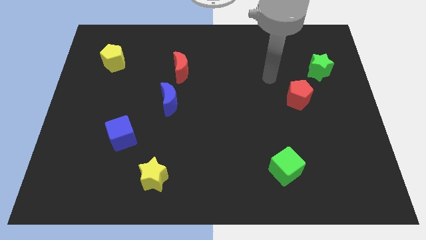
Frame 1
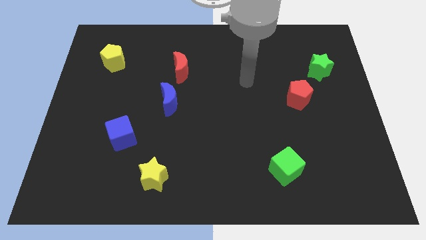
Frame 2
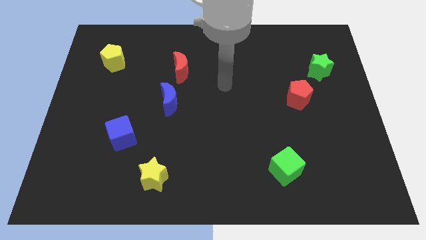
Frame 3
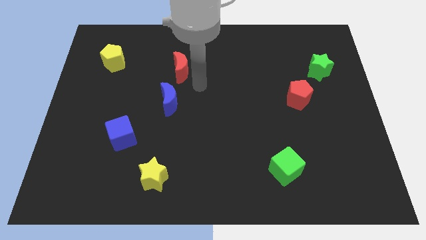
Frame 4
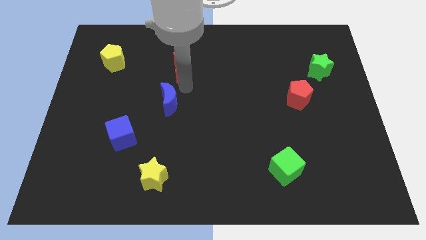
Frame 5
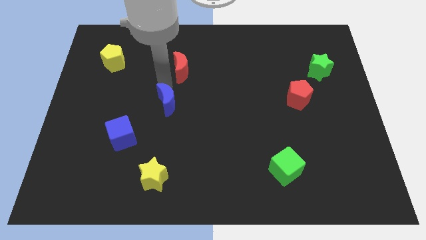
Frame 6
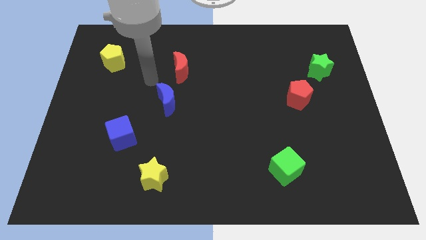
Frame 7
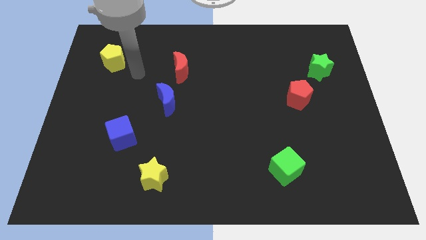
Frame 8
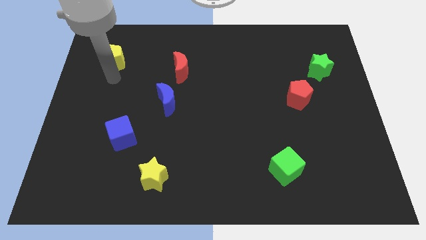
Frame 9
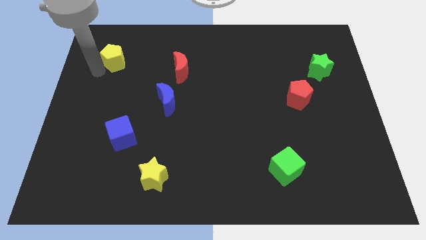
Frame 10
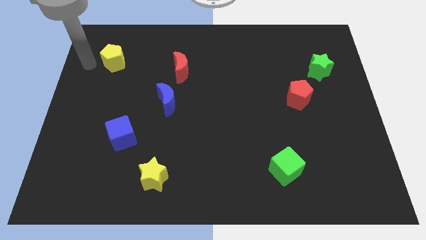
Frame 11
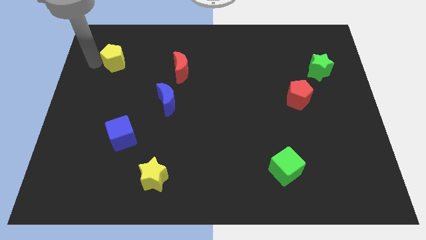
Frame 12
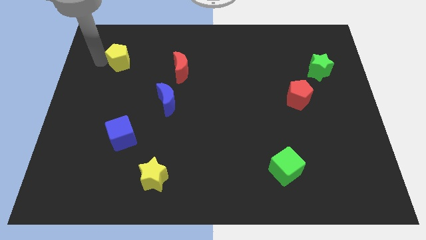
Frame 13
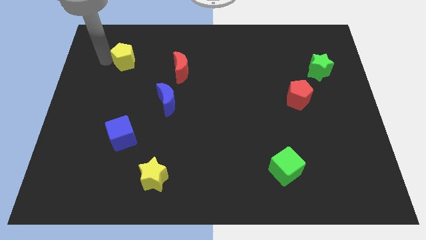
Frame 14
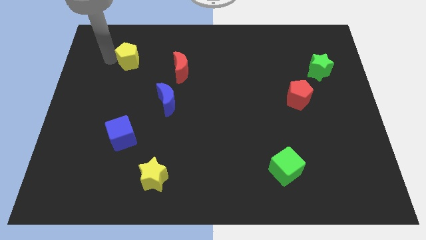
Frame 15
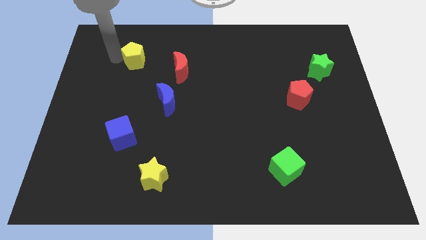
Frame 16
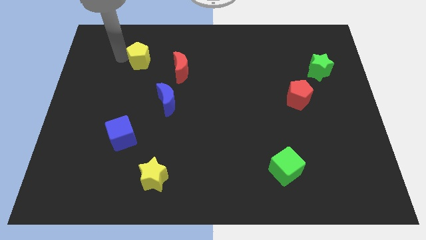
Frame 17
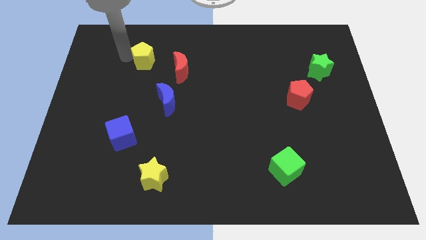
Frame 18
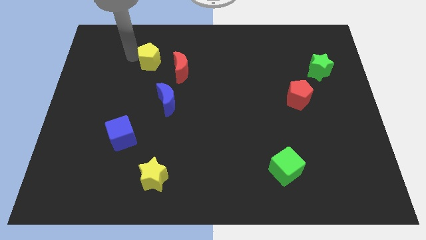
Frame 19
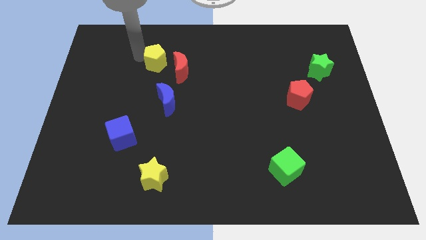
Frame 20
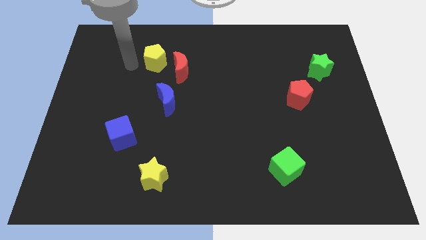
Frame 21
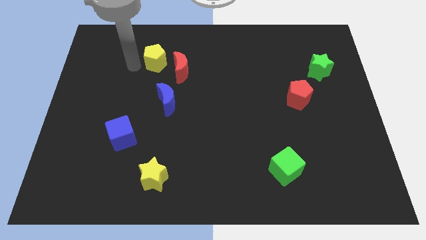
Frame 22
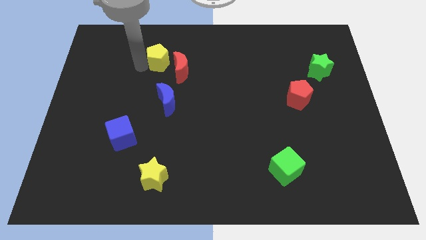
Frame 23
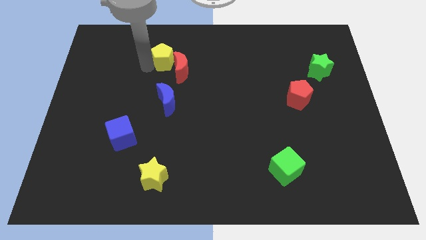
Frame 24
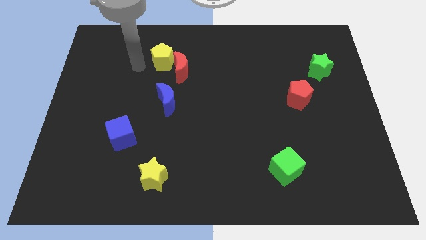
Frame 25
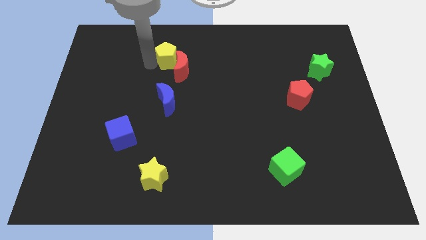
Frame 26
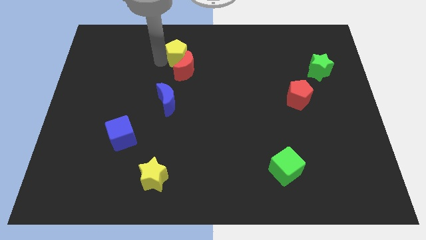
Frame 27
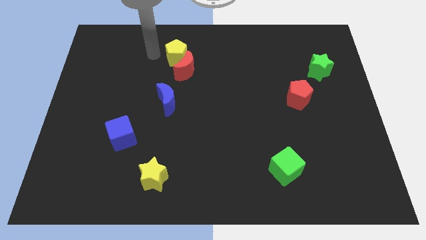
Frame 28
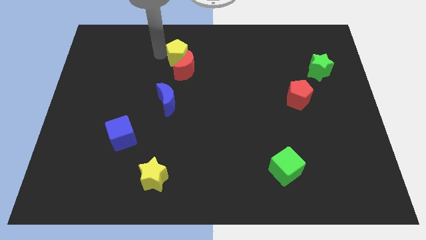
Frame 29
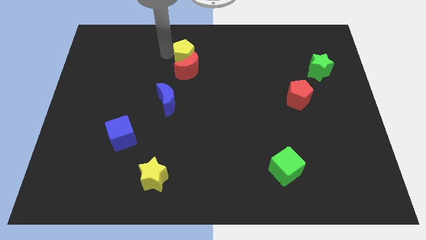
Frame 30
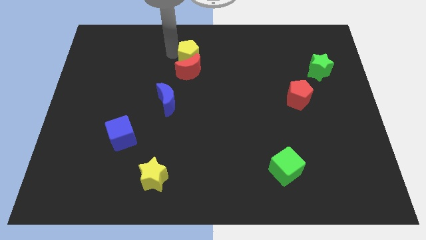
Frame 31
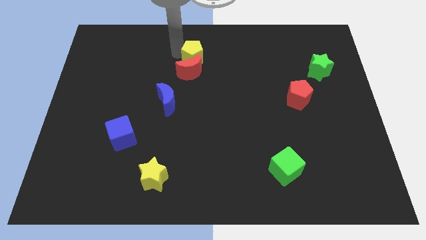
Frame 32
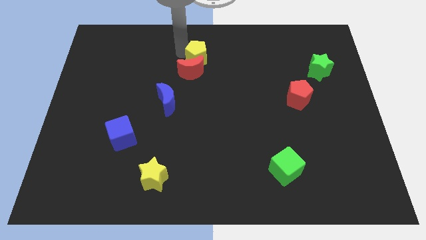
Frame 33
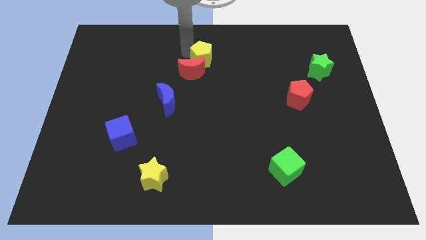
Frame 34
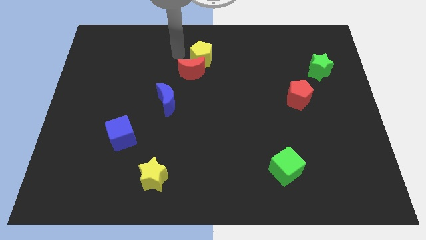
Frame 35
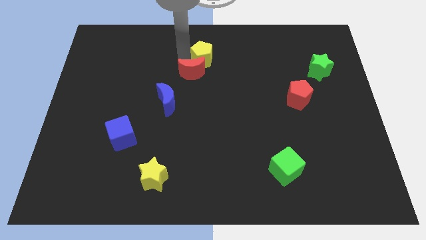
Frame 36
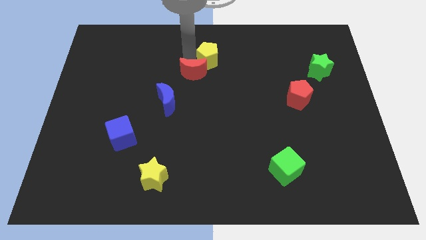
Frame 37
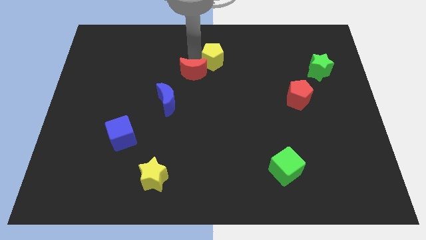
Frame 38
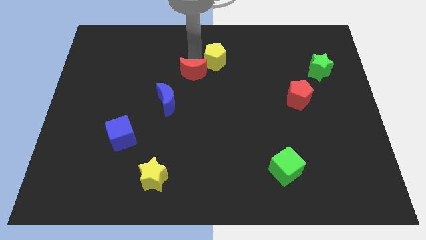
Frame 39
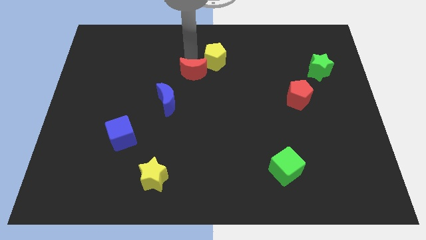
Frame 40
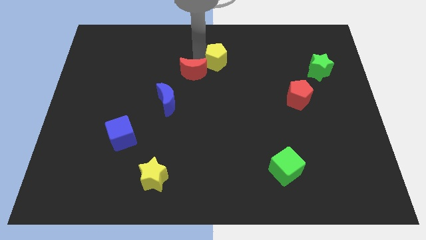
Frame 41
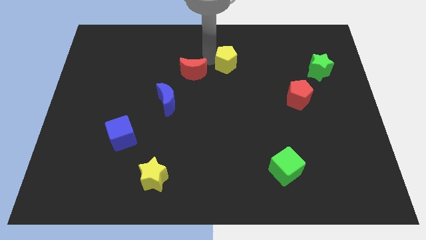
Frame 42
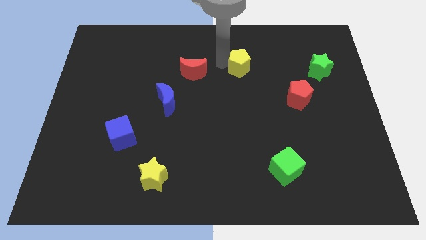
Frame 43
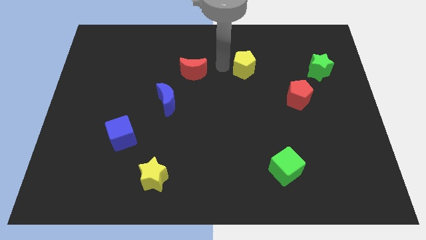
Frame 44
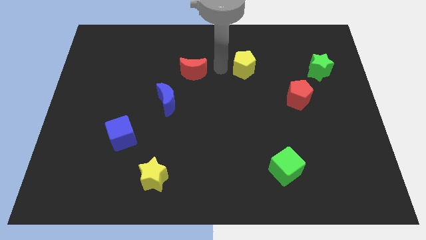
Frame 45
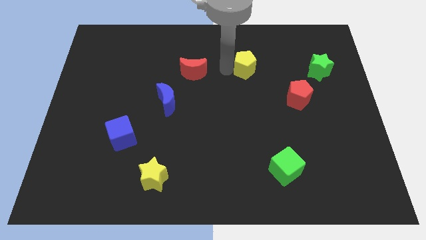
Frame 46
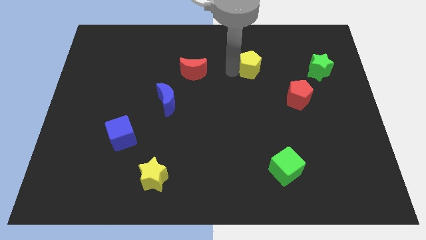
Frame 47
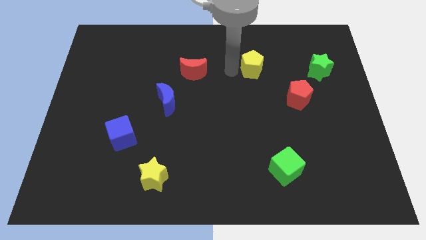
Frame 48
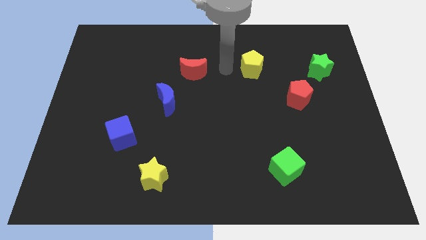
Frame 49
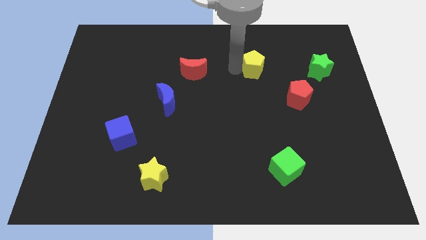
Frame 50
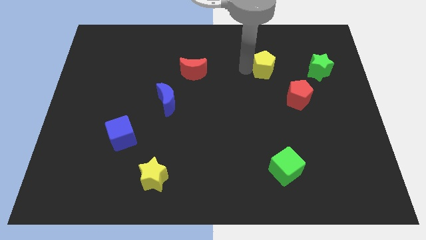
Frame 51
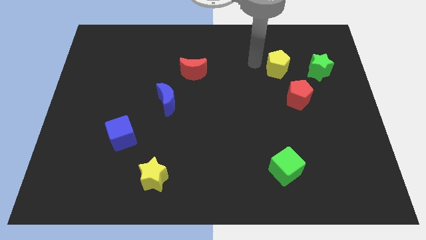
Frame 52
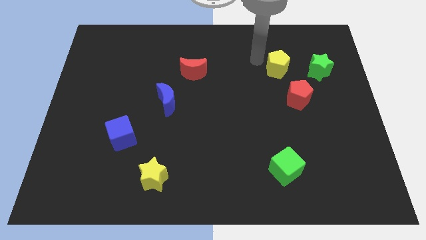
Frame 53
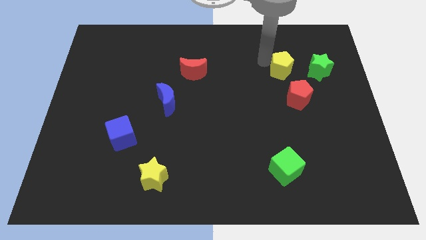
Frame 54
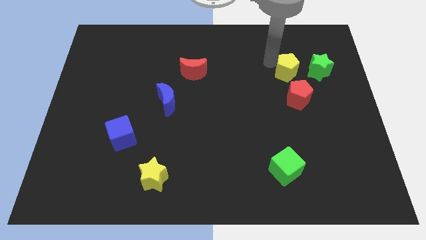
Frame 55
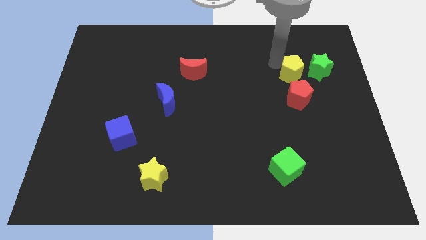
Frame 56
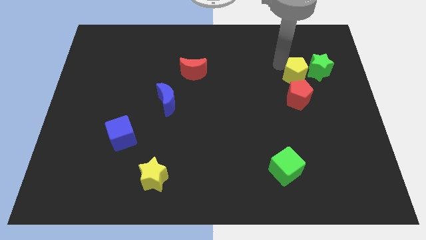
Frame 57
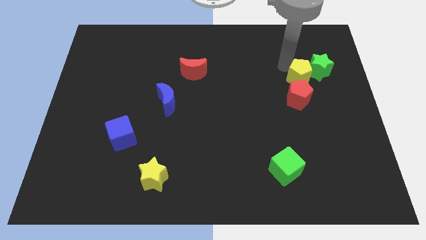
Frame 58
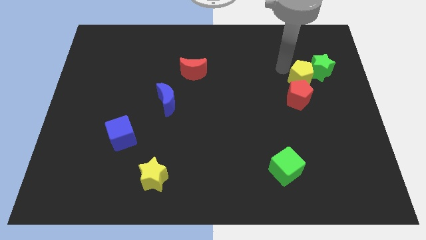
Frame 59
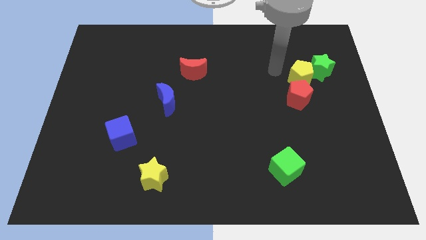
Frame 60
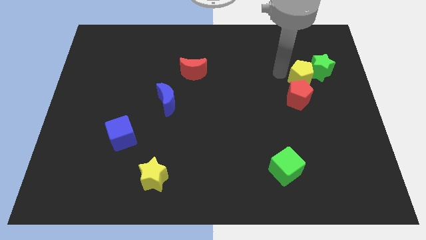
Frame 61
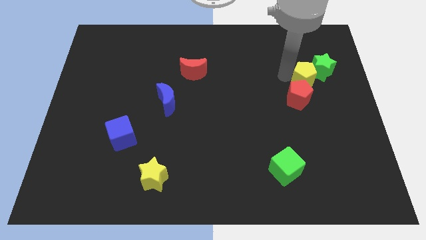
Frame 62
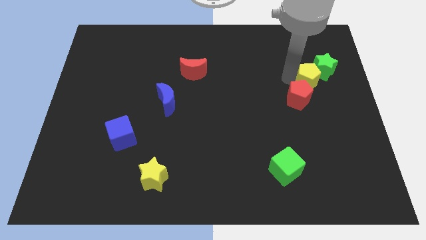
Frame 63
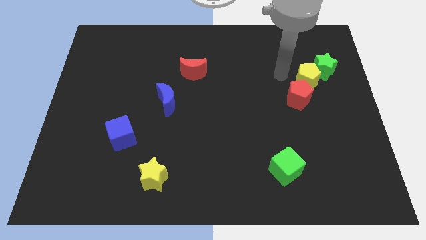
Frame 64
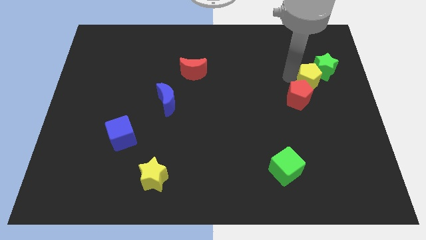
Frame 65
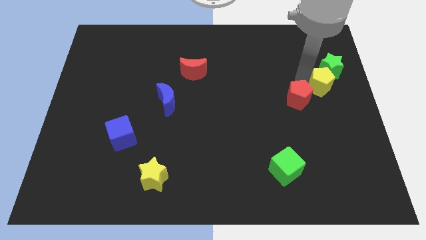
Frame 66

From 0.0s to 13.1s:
put the yellow pentagon to the center right
